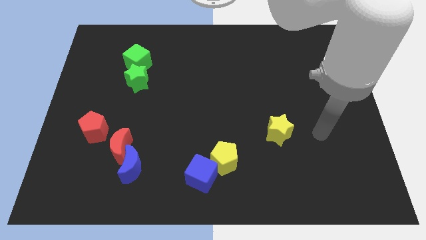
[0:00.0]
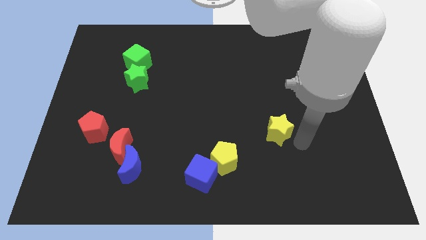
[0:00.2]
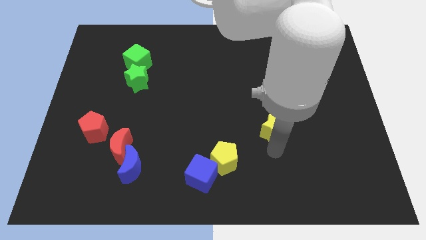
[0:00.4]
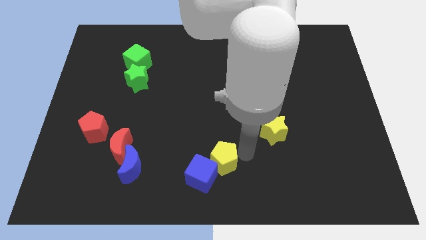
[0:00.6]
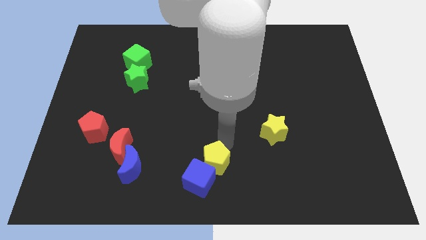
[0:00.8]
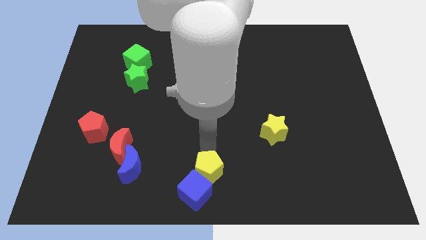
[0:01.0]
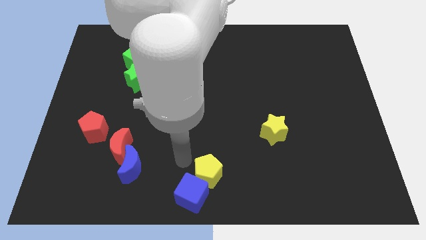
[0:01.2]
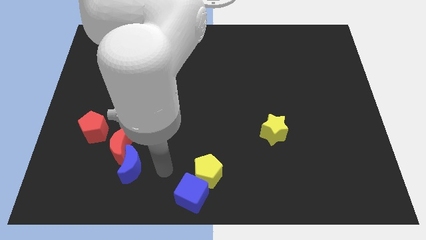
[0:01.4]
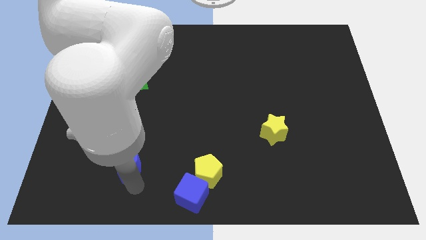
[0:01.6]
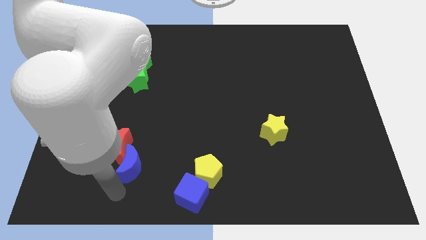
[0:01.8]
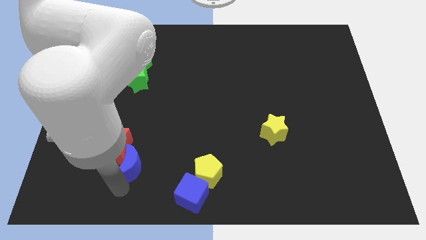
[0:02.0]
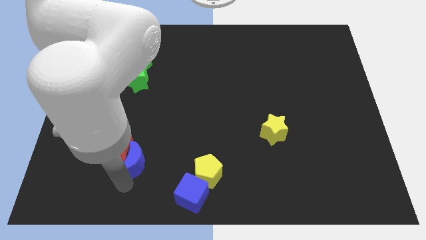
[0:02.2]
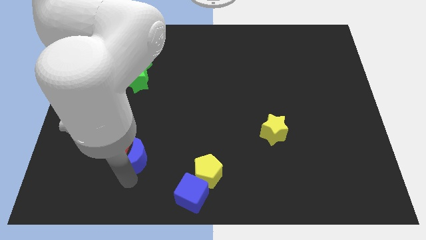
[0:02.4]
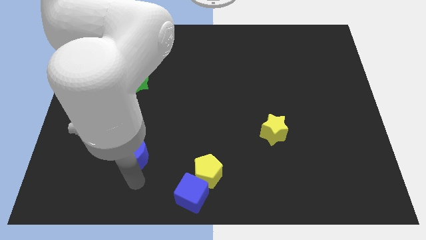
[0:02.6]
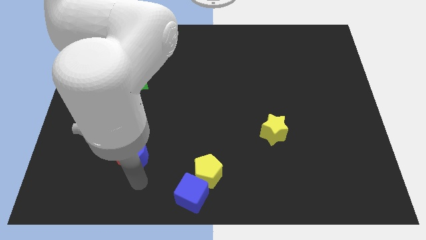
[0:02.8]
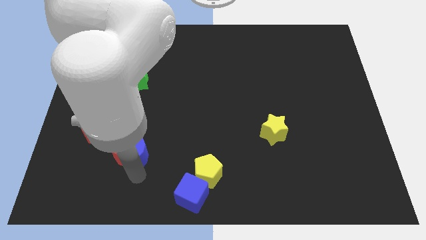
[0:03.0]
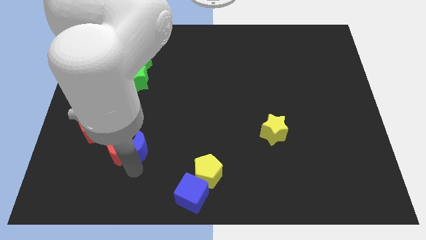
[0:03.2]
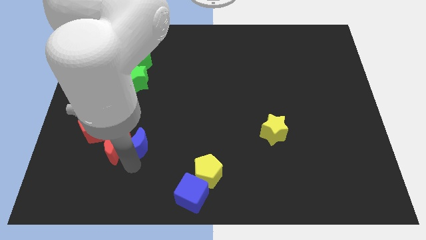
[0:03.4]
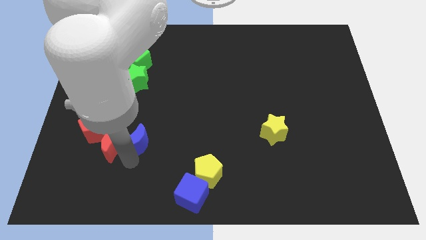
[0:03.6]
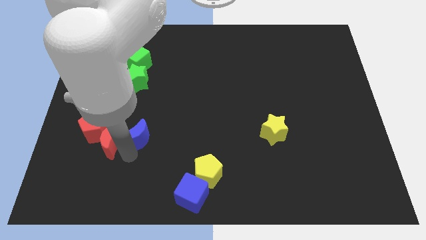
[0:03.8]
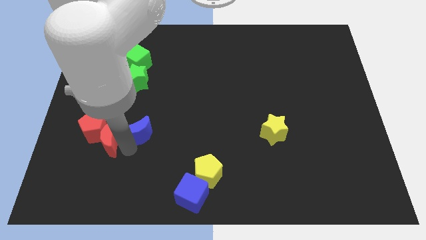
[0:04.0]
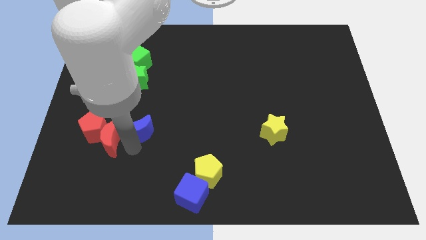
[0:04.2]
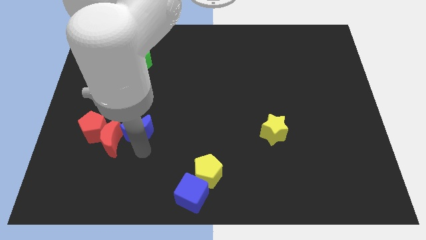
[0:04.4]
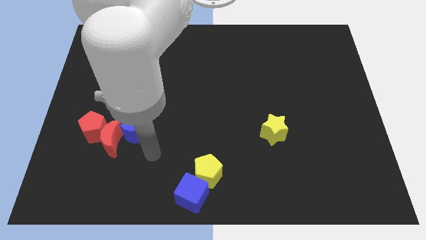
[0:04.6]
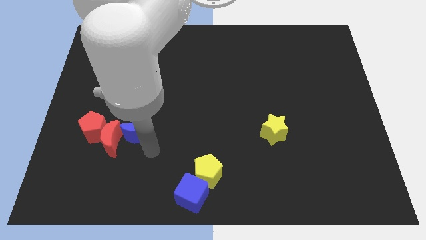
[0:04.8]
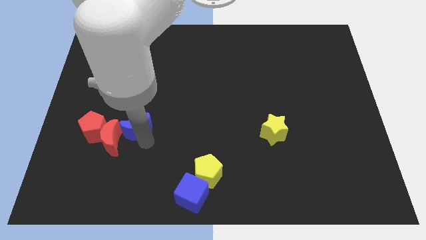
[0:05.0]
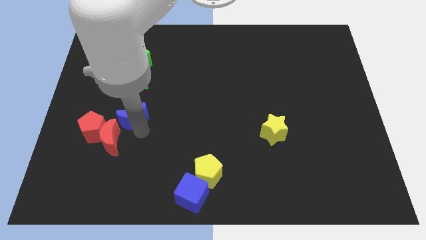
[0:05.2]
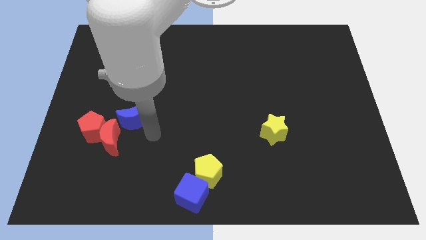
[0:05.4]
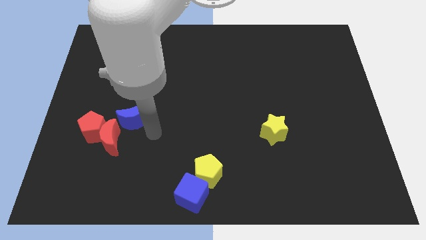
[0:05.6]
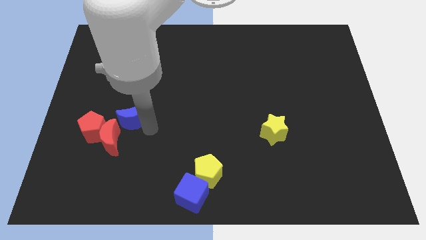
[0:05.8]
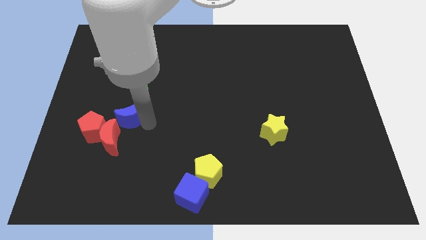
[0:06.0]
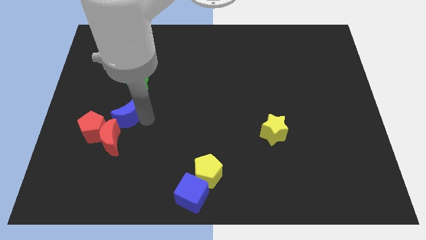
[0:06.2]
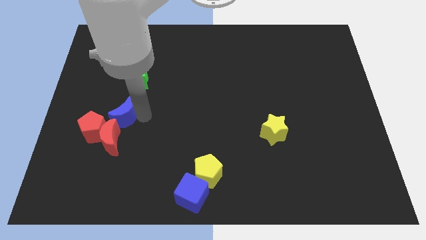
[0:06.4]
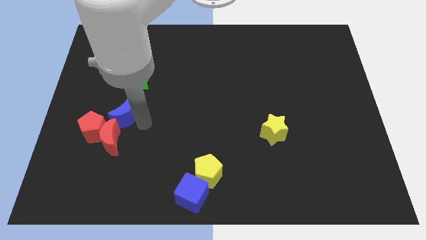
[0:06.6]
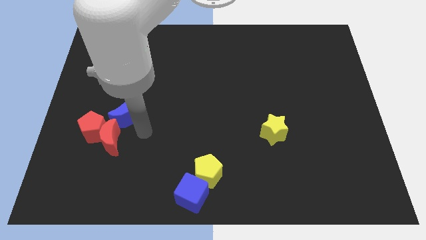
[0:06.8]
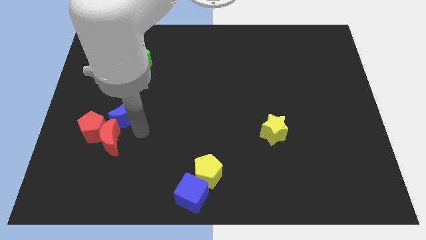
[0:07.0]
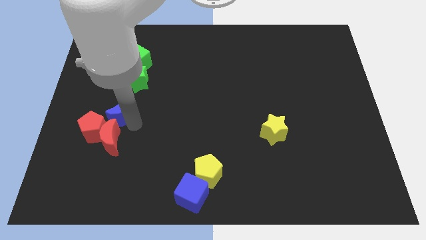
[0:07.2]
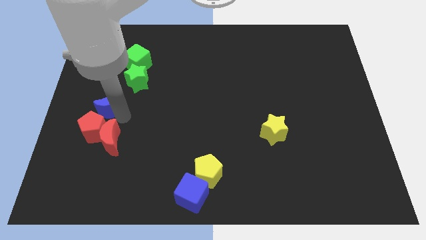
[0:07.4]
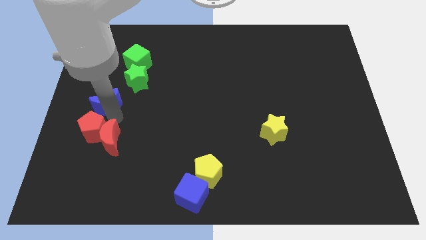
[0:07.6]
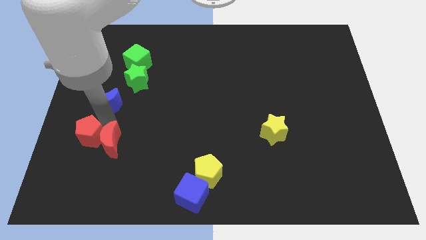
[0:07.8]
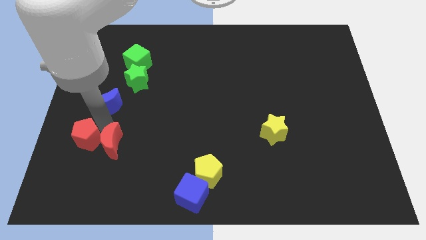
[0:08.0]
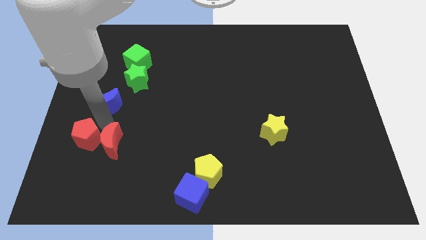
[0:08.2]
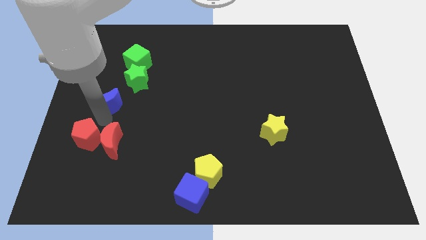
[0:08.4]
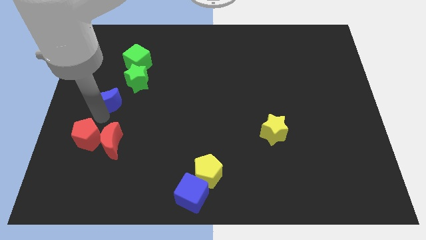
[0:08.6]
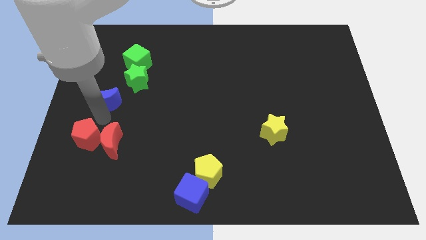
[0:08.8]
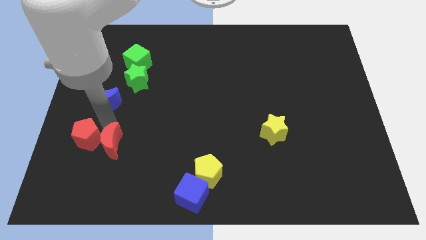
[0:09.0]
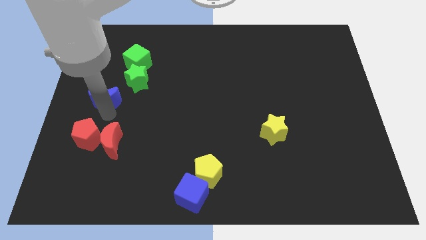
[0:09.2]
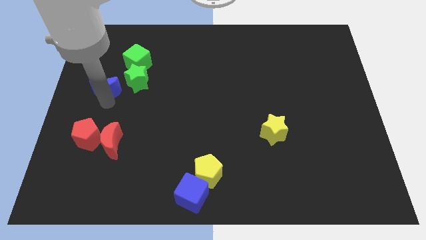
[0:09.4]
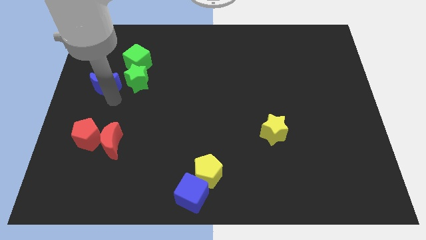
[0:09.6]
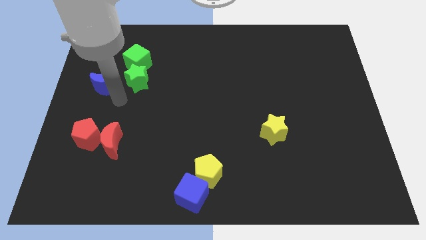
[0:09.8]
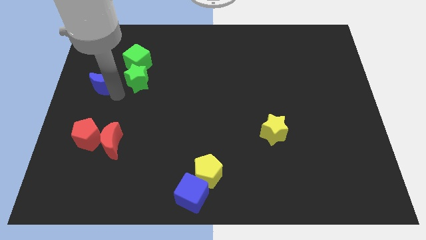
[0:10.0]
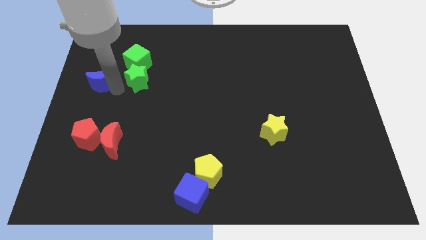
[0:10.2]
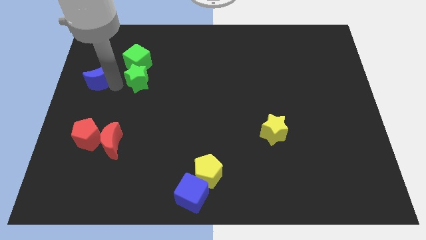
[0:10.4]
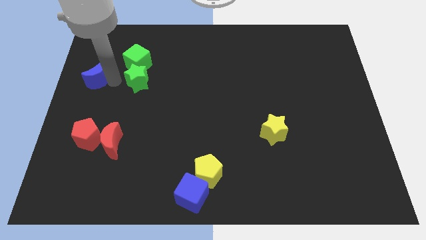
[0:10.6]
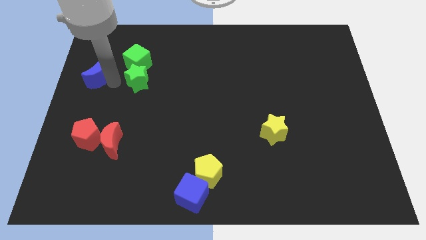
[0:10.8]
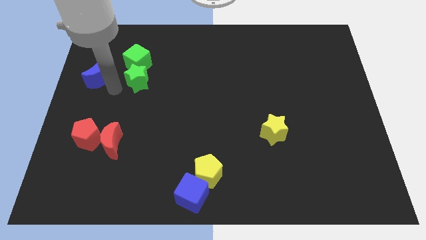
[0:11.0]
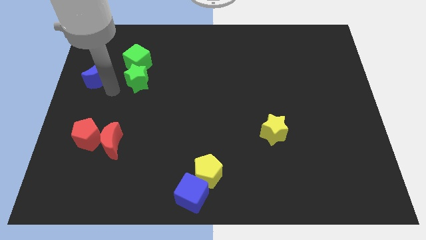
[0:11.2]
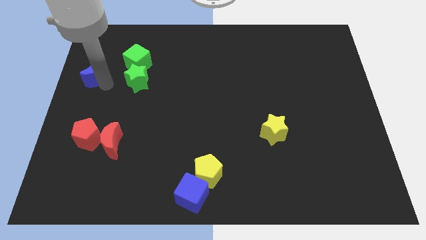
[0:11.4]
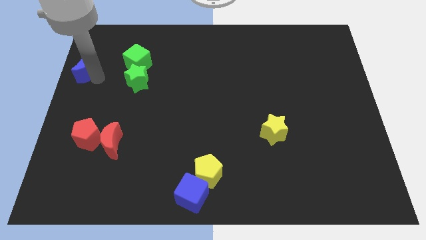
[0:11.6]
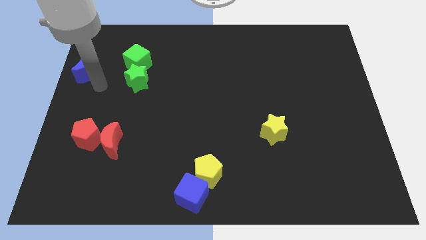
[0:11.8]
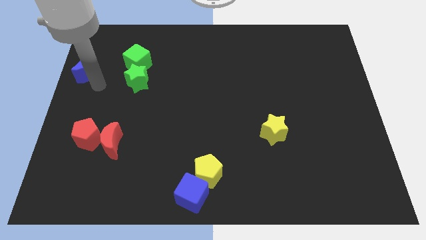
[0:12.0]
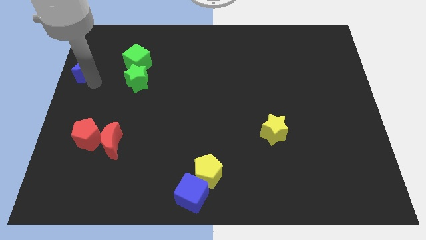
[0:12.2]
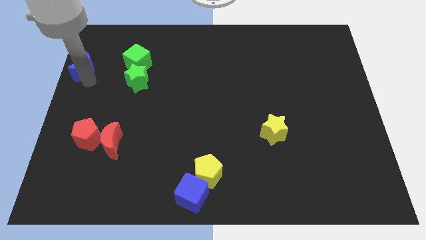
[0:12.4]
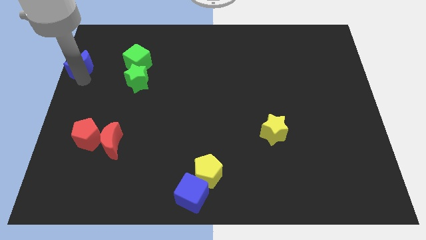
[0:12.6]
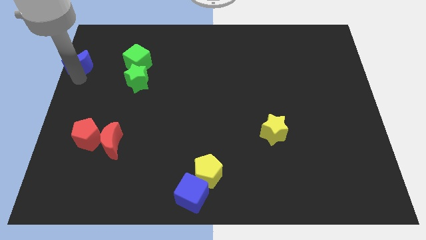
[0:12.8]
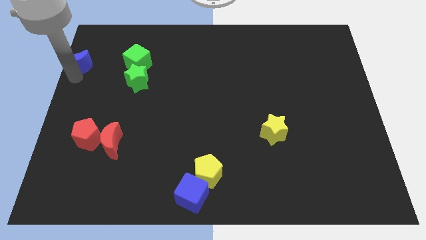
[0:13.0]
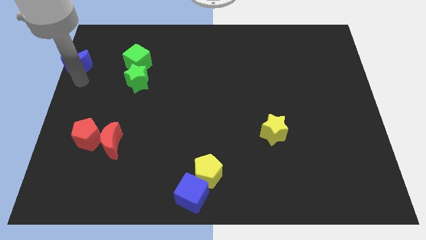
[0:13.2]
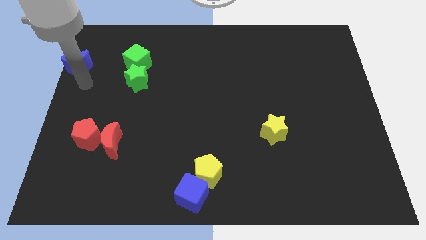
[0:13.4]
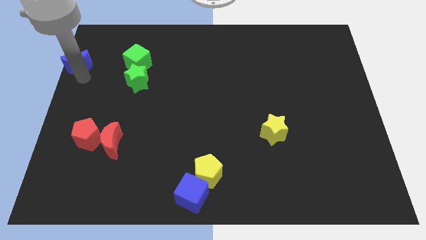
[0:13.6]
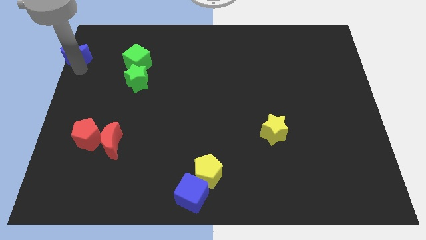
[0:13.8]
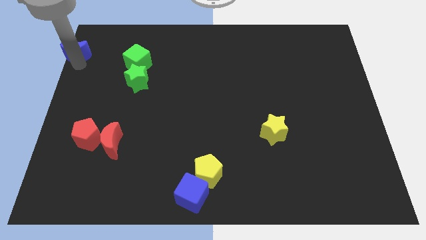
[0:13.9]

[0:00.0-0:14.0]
slide the blue moon to the top left corner

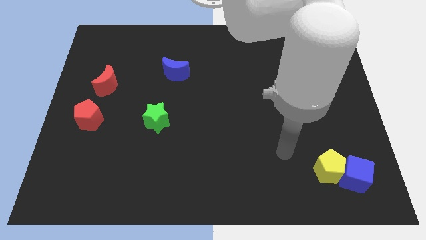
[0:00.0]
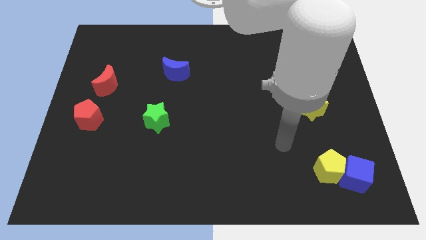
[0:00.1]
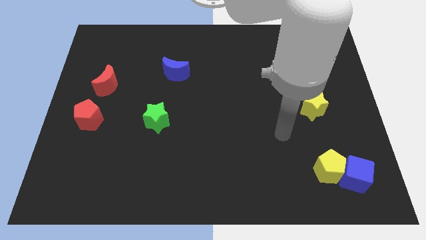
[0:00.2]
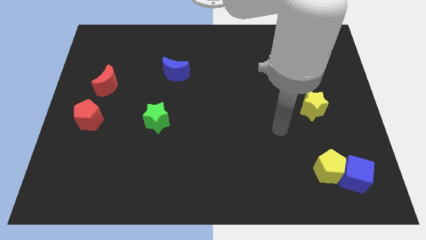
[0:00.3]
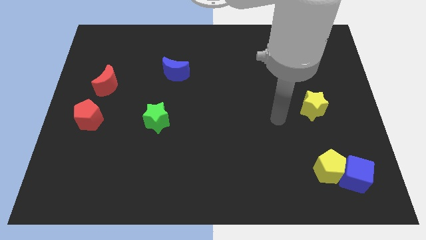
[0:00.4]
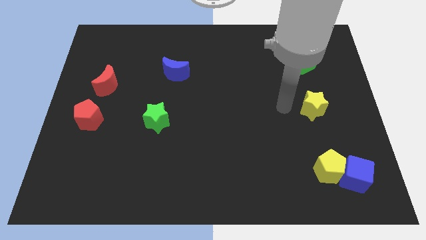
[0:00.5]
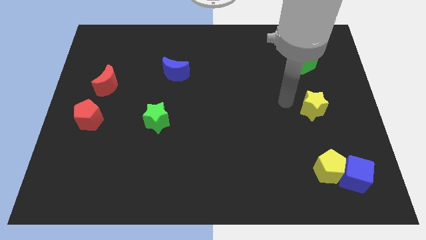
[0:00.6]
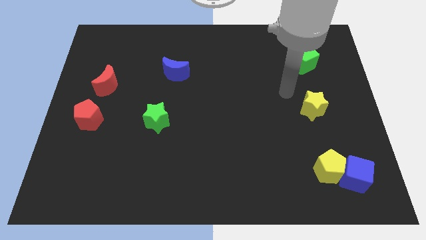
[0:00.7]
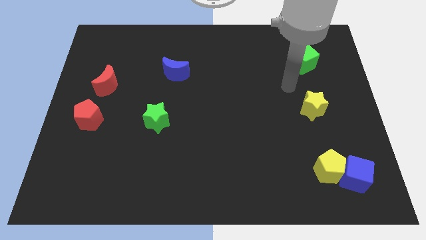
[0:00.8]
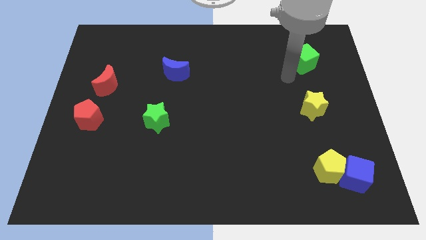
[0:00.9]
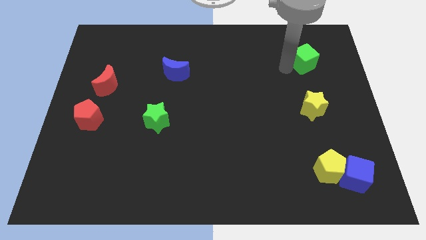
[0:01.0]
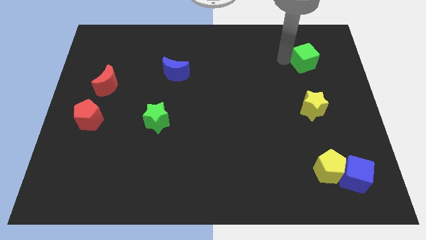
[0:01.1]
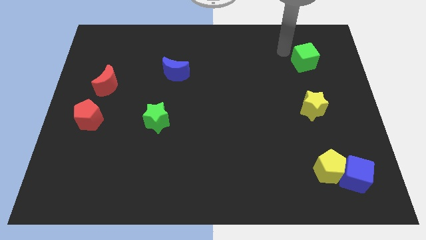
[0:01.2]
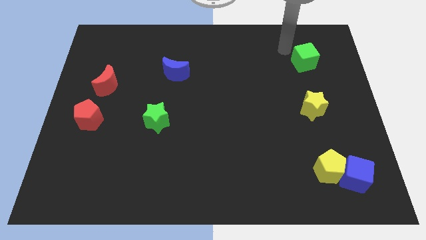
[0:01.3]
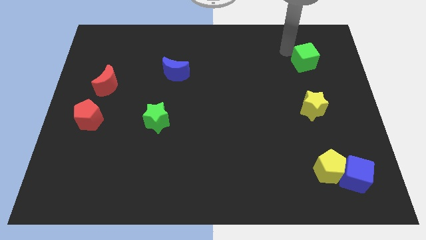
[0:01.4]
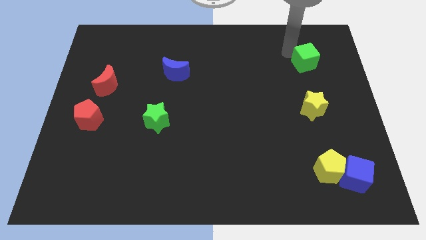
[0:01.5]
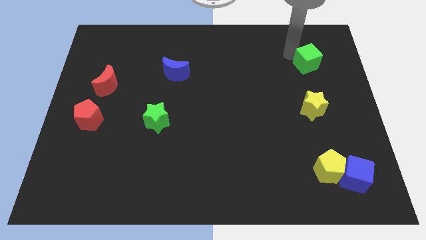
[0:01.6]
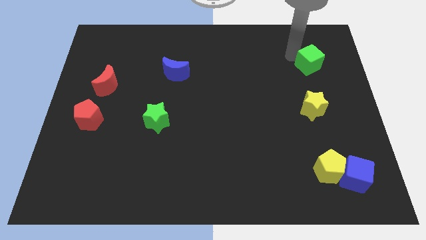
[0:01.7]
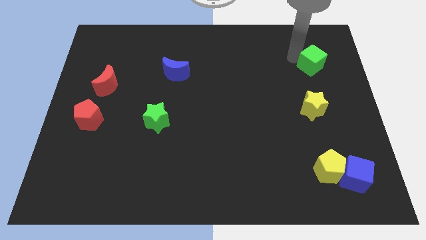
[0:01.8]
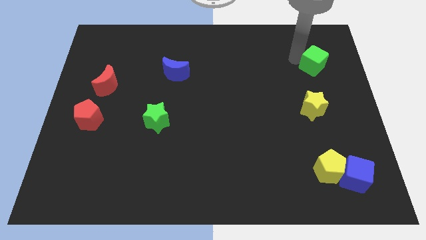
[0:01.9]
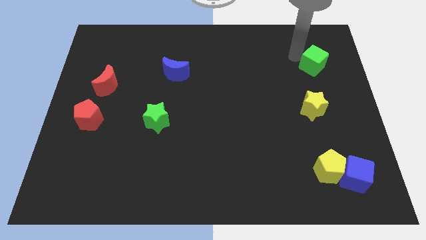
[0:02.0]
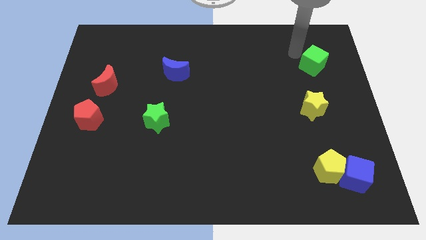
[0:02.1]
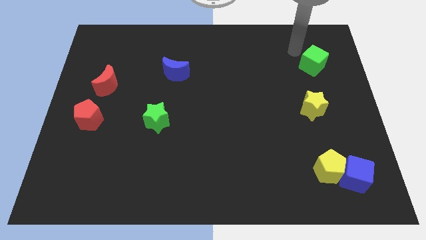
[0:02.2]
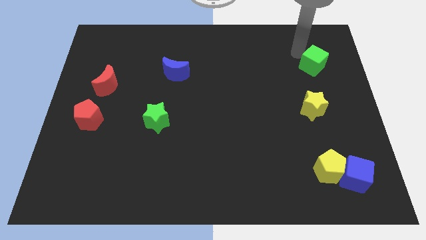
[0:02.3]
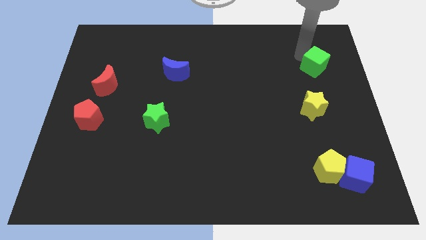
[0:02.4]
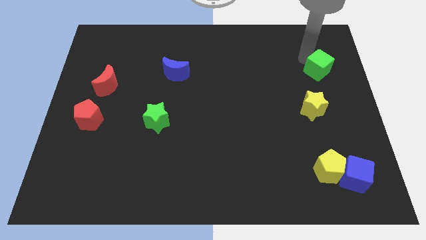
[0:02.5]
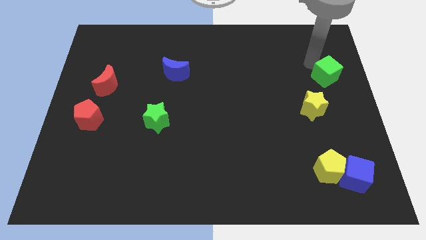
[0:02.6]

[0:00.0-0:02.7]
slide the green cube to the center right
